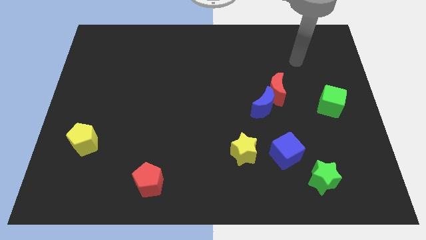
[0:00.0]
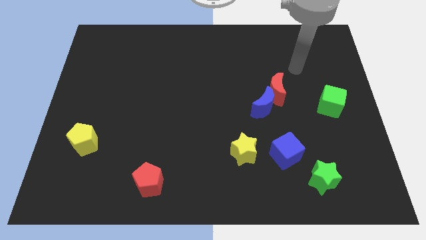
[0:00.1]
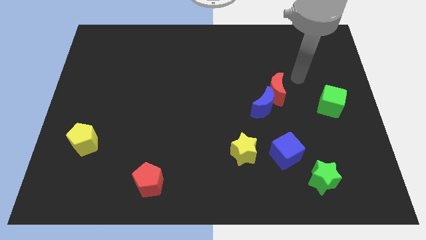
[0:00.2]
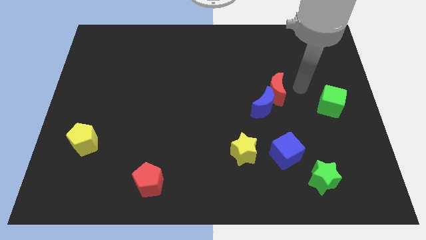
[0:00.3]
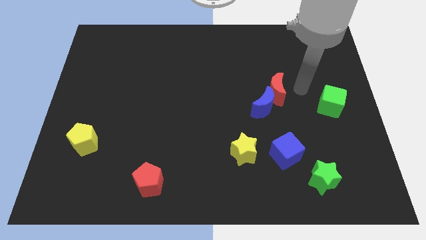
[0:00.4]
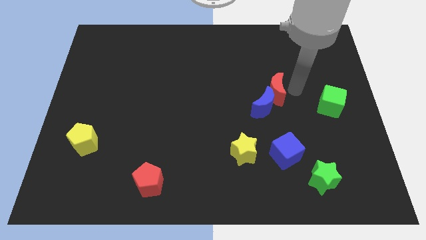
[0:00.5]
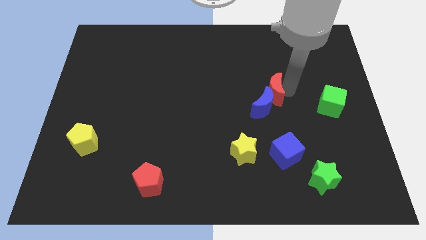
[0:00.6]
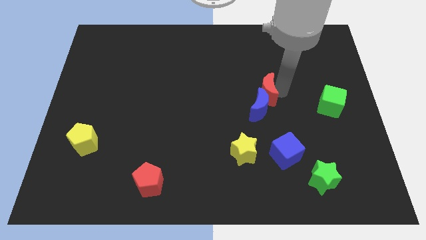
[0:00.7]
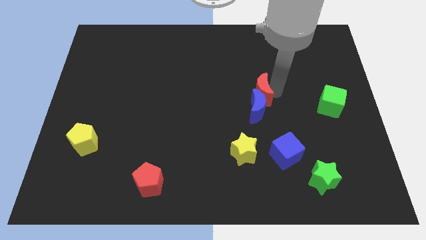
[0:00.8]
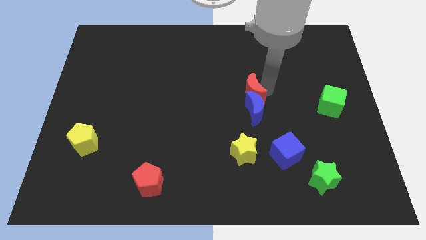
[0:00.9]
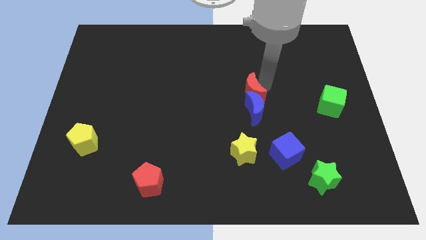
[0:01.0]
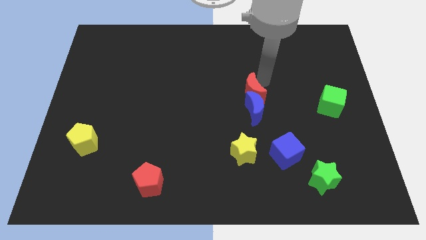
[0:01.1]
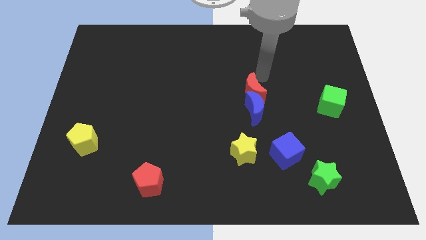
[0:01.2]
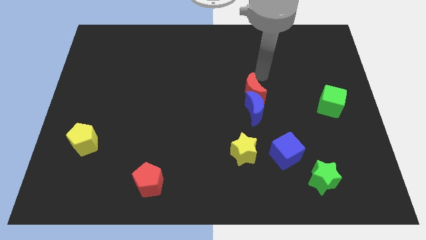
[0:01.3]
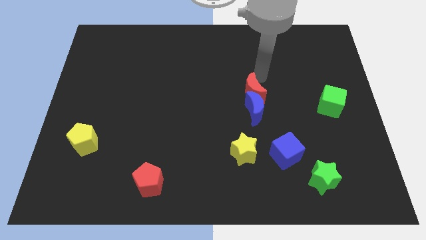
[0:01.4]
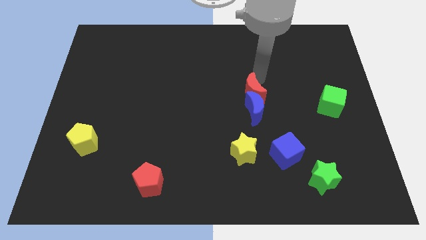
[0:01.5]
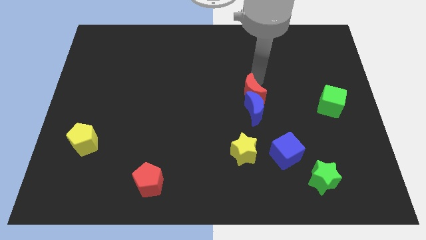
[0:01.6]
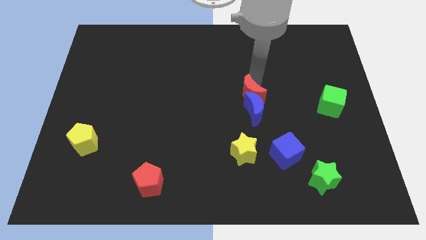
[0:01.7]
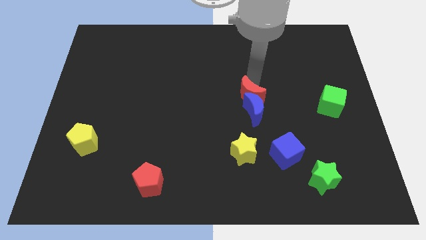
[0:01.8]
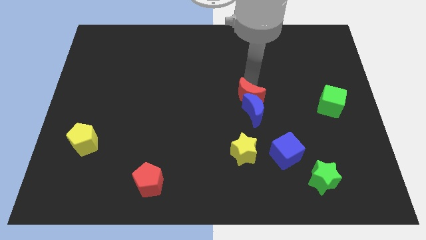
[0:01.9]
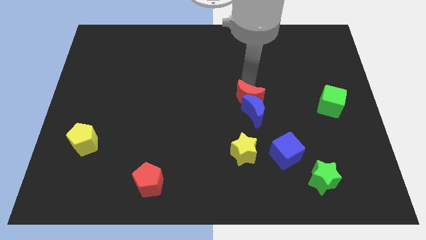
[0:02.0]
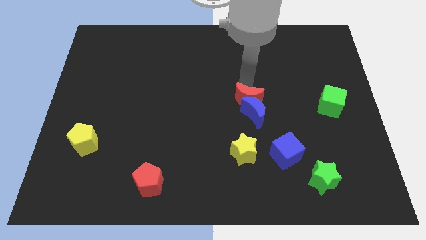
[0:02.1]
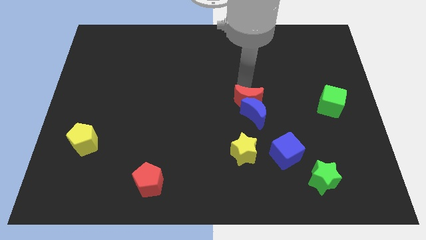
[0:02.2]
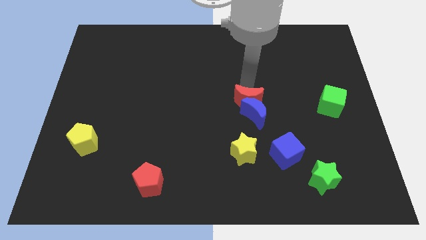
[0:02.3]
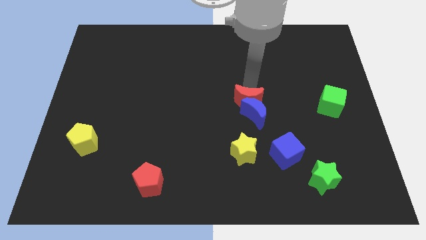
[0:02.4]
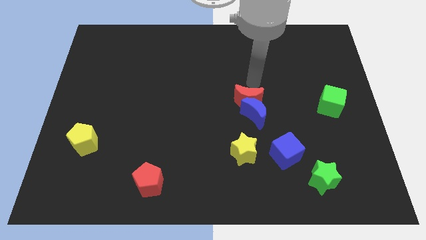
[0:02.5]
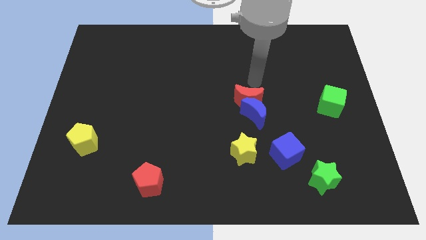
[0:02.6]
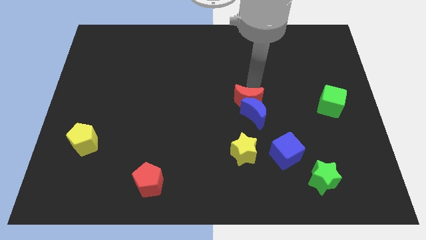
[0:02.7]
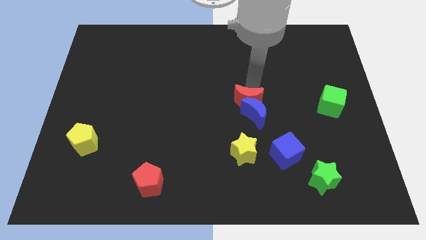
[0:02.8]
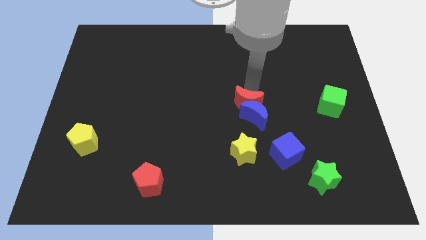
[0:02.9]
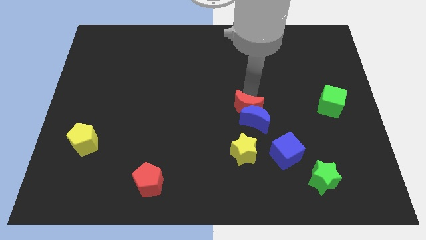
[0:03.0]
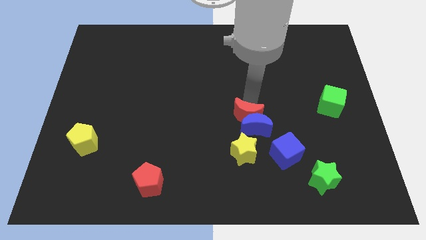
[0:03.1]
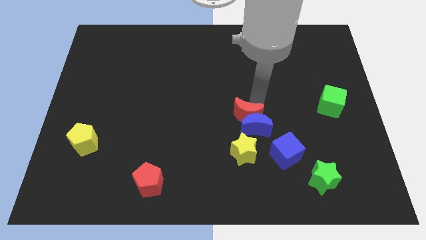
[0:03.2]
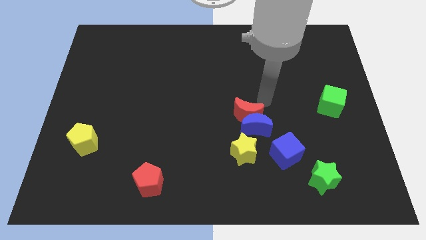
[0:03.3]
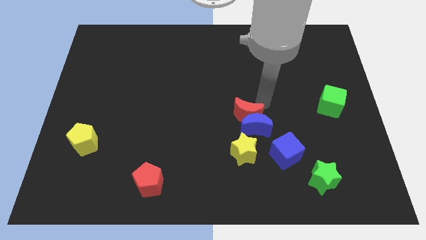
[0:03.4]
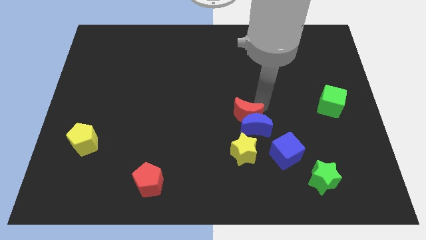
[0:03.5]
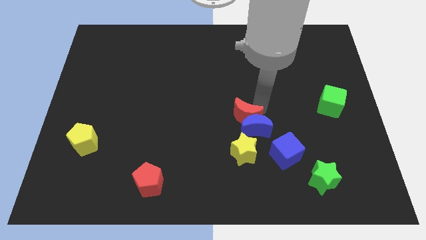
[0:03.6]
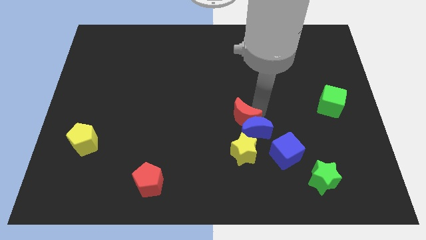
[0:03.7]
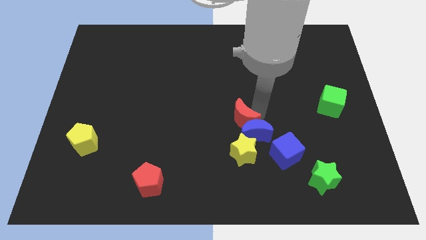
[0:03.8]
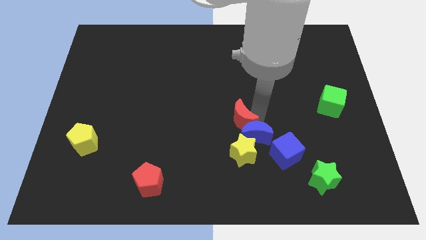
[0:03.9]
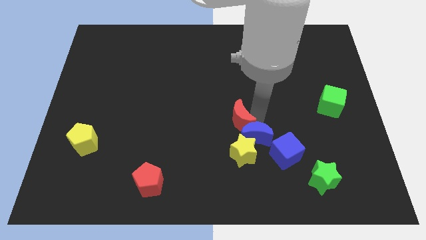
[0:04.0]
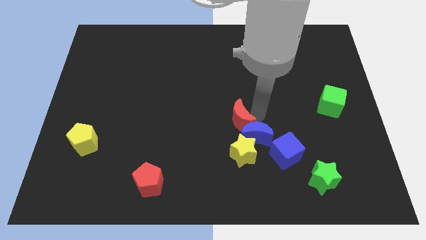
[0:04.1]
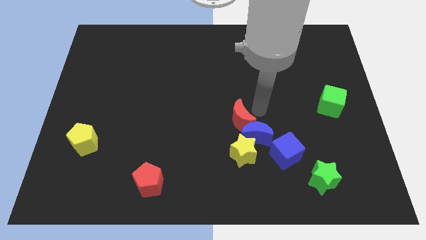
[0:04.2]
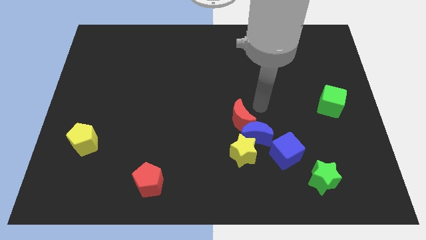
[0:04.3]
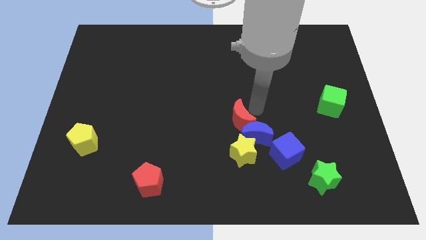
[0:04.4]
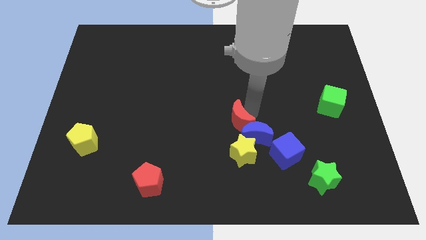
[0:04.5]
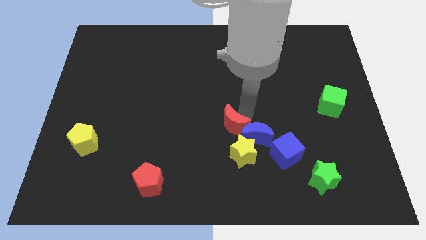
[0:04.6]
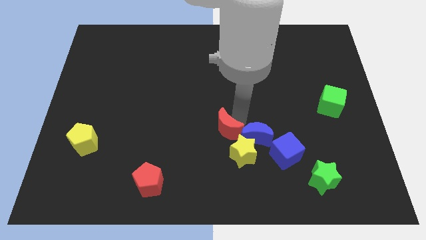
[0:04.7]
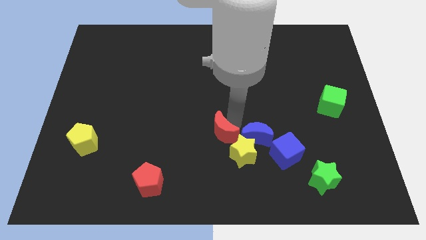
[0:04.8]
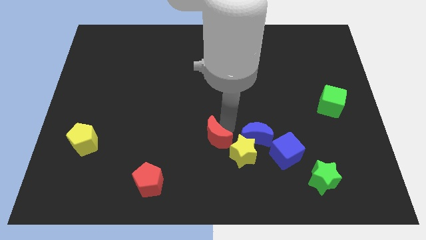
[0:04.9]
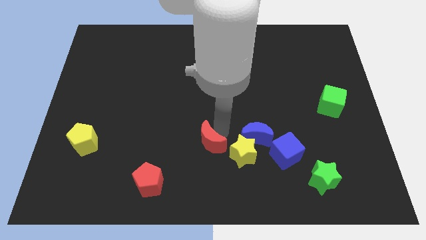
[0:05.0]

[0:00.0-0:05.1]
slide the red moon downwards and left diagonally

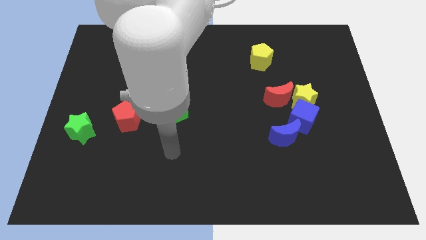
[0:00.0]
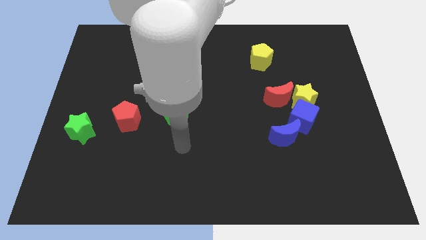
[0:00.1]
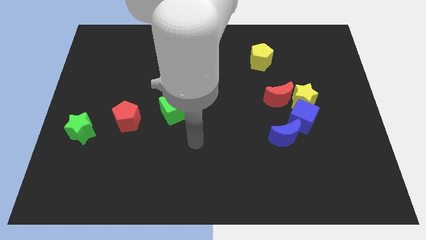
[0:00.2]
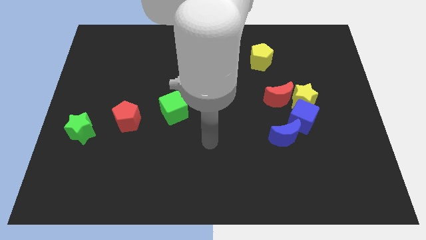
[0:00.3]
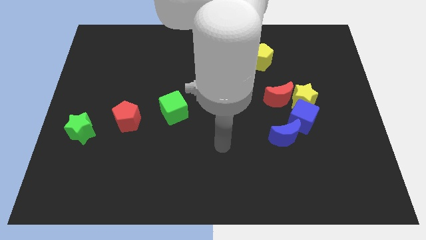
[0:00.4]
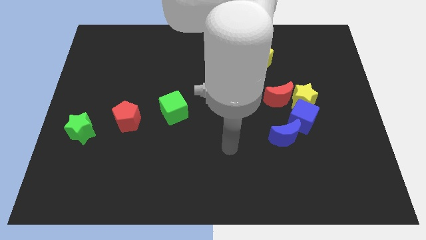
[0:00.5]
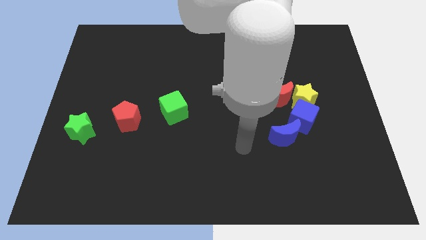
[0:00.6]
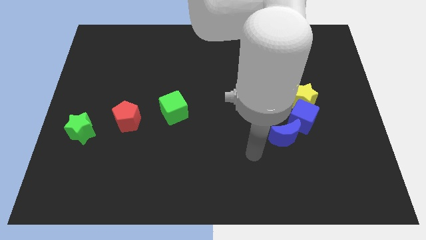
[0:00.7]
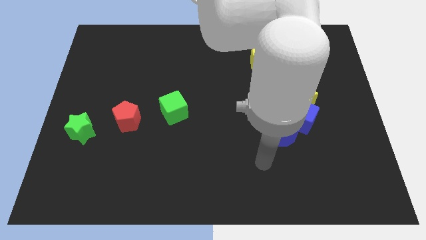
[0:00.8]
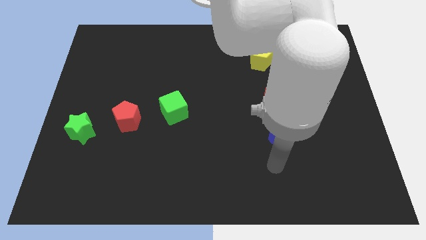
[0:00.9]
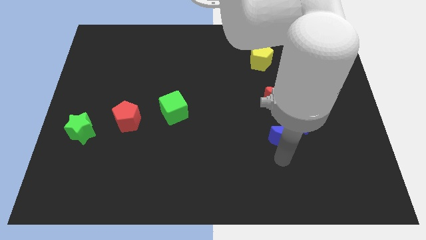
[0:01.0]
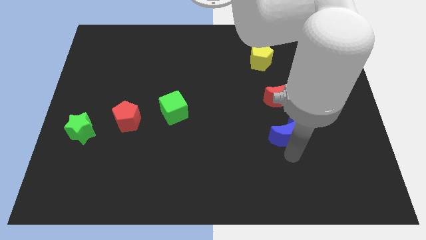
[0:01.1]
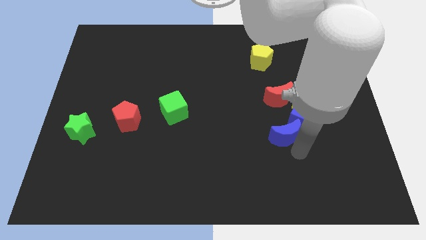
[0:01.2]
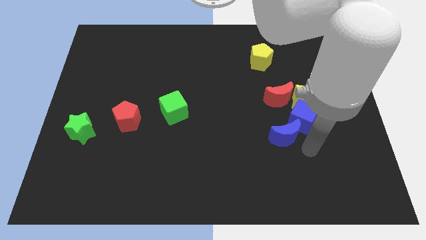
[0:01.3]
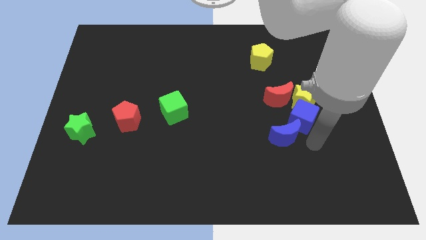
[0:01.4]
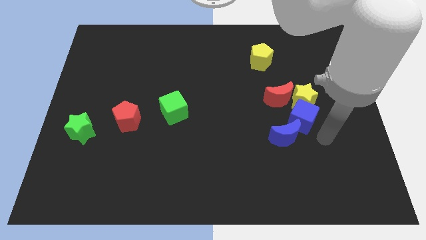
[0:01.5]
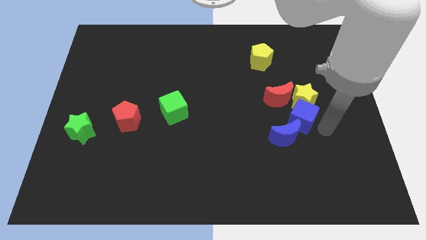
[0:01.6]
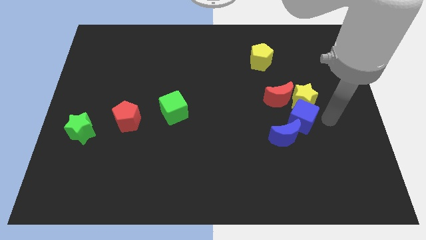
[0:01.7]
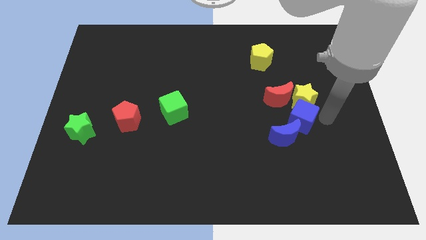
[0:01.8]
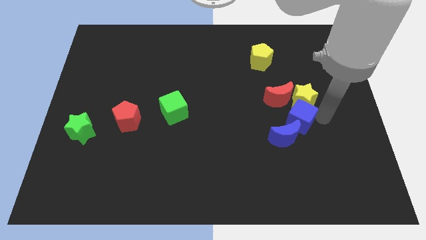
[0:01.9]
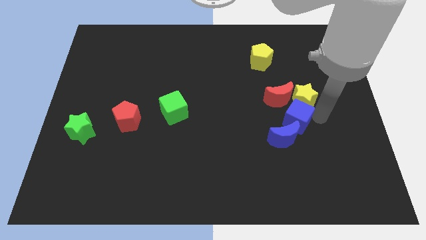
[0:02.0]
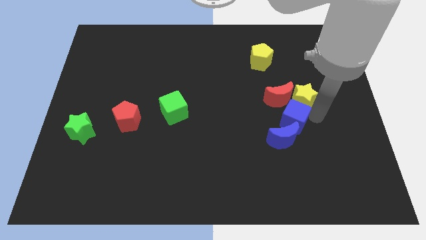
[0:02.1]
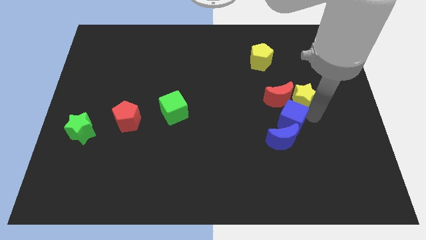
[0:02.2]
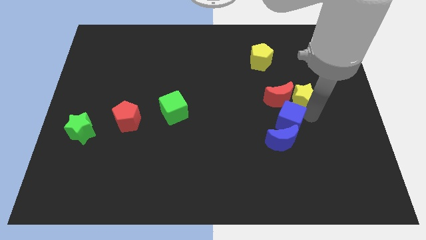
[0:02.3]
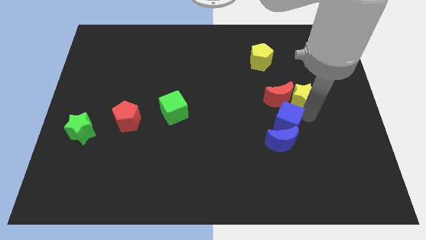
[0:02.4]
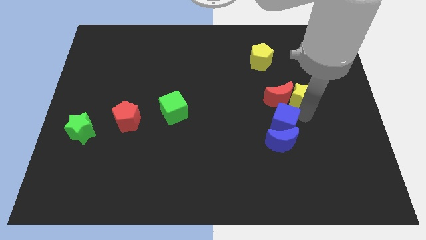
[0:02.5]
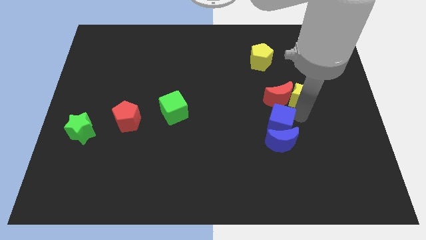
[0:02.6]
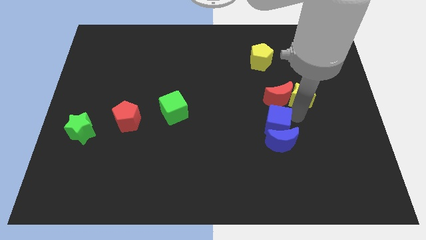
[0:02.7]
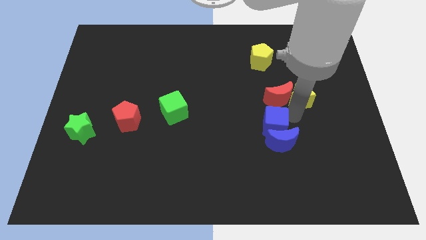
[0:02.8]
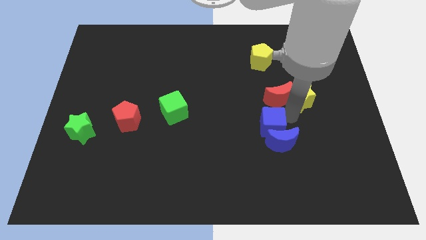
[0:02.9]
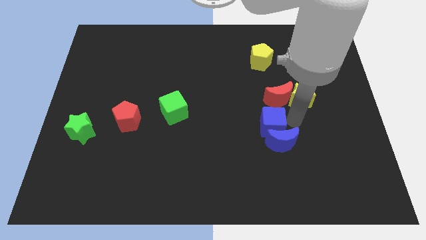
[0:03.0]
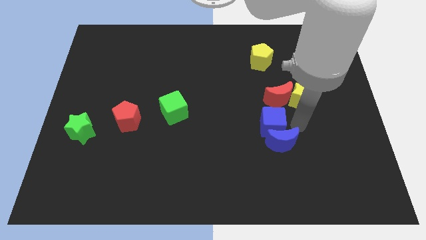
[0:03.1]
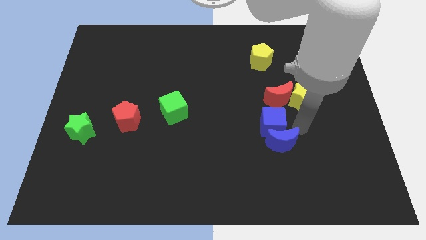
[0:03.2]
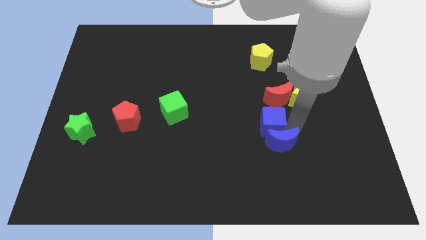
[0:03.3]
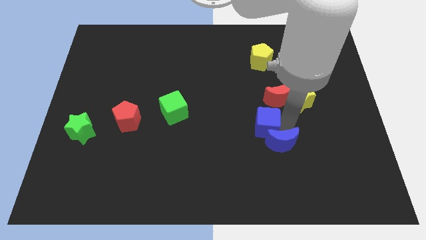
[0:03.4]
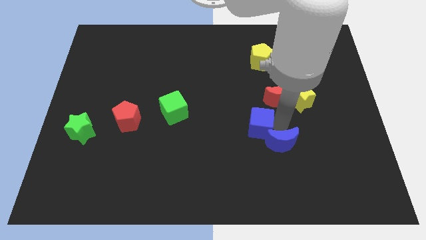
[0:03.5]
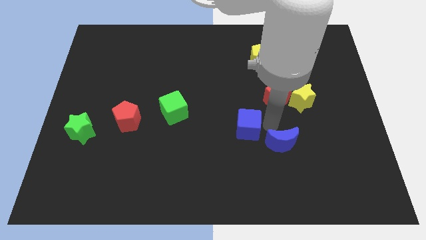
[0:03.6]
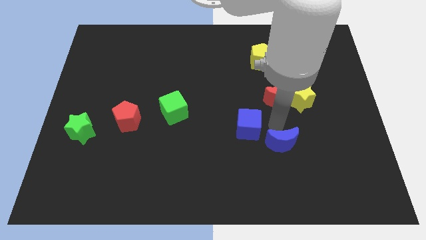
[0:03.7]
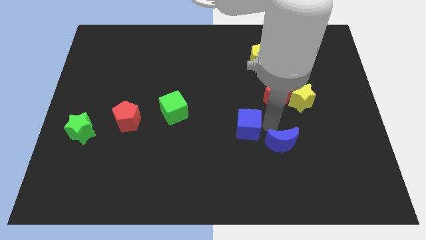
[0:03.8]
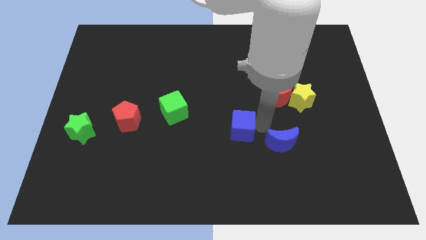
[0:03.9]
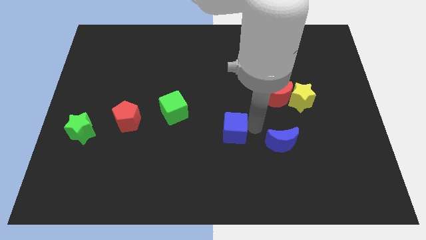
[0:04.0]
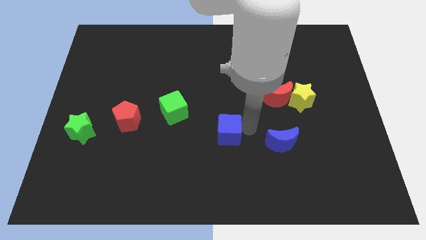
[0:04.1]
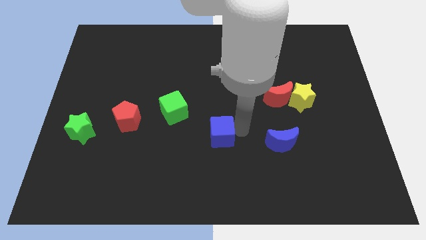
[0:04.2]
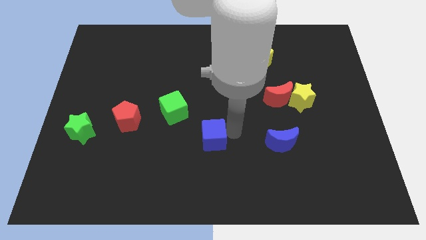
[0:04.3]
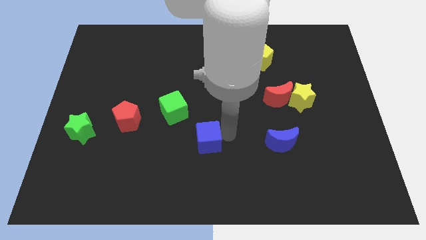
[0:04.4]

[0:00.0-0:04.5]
slide the blue cube to the left
